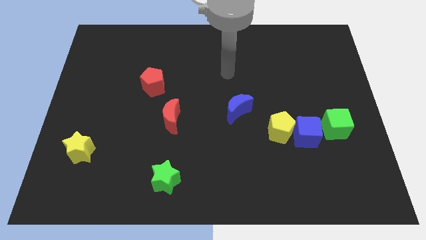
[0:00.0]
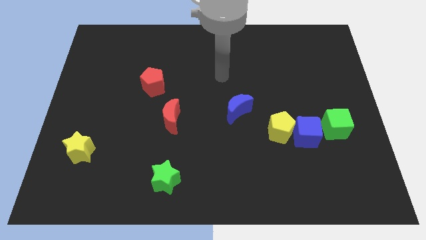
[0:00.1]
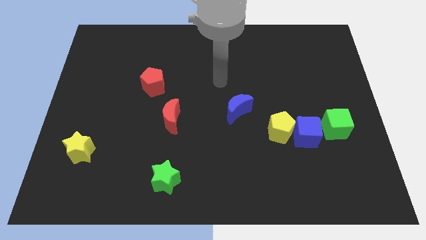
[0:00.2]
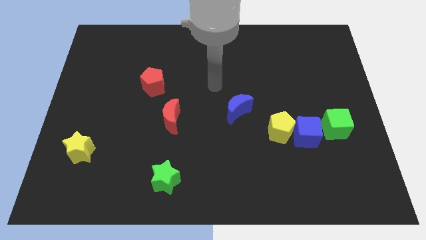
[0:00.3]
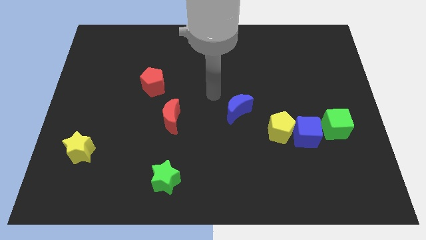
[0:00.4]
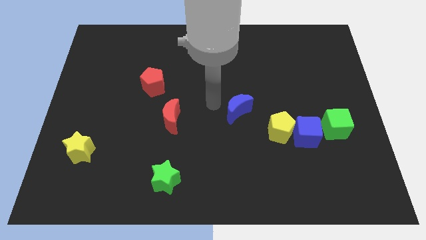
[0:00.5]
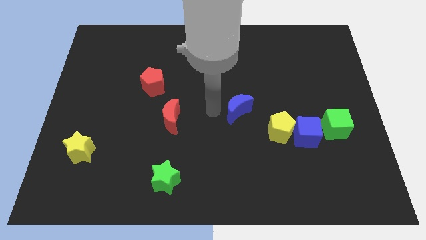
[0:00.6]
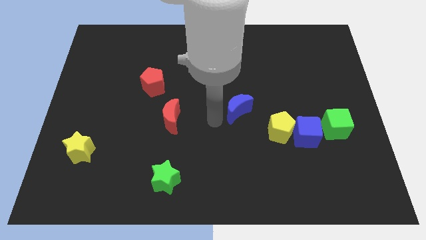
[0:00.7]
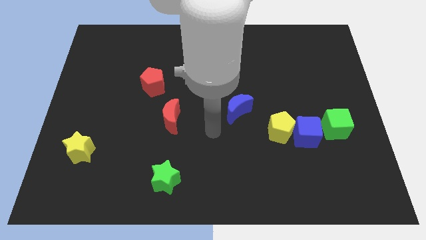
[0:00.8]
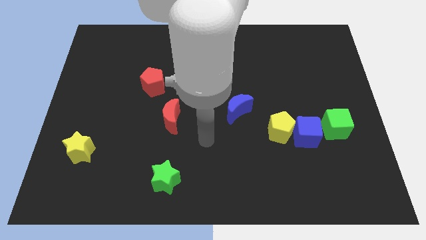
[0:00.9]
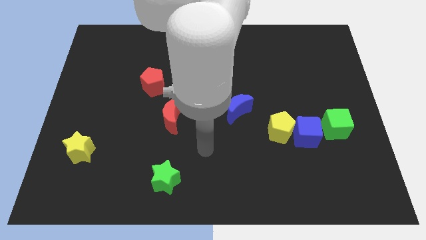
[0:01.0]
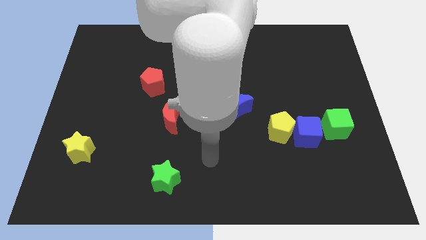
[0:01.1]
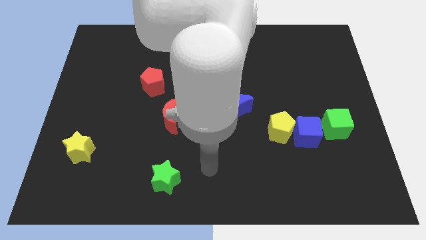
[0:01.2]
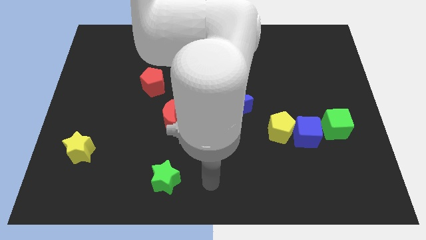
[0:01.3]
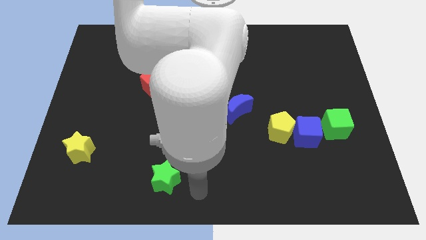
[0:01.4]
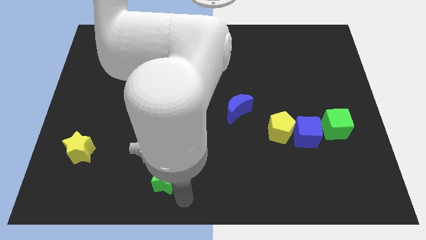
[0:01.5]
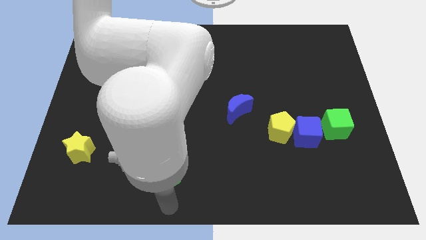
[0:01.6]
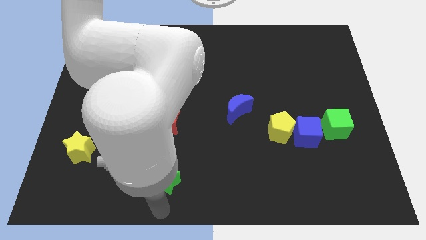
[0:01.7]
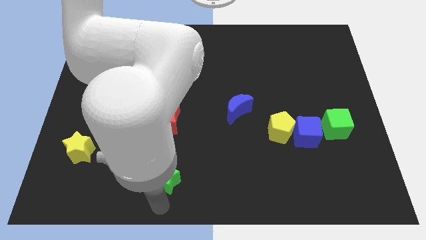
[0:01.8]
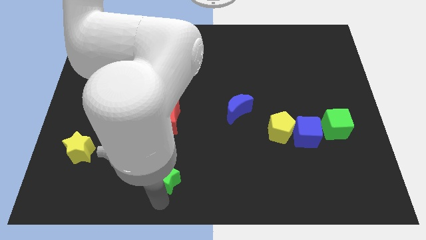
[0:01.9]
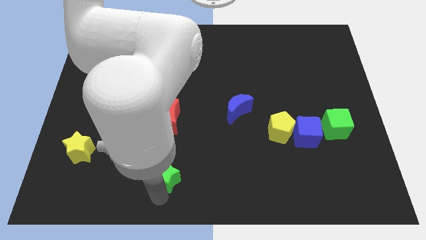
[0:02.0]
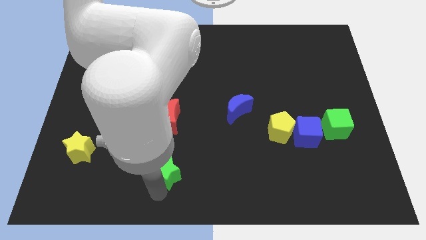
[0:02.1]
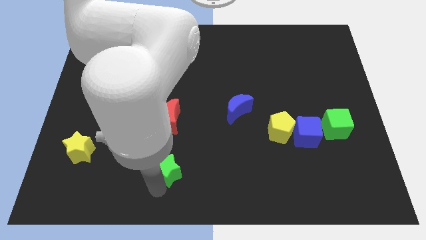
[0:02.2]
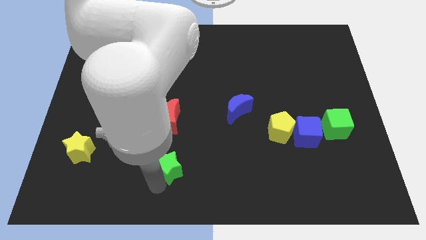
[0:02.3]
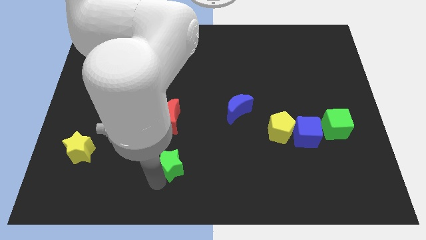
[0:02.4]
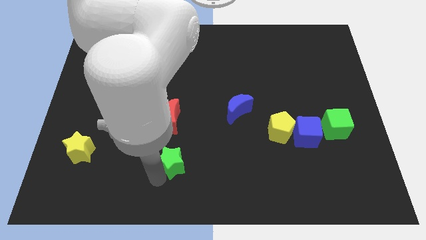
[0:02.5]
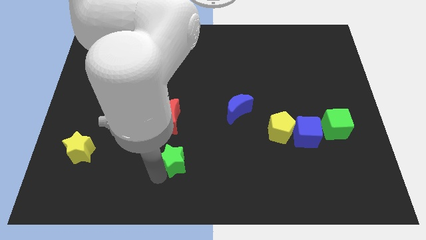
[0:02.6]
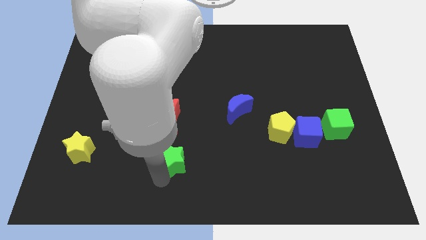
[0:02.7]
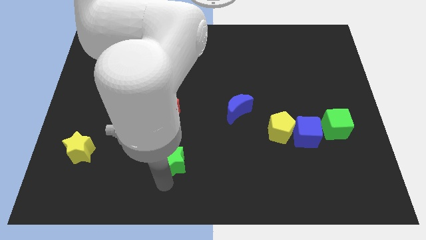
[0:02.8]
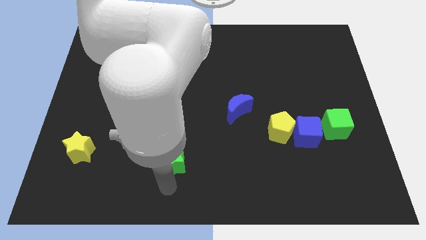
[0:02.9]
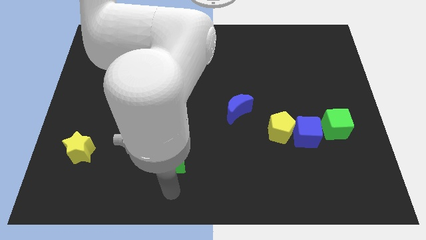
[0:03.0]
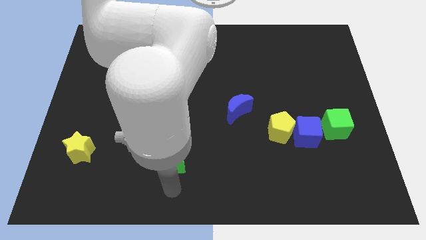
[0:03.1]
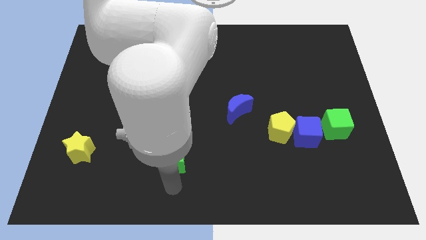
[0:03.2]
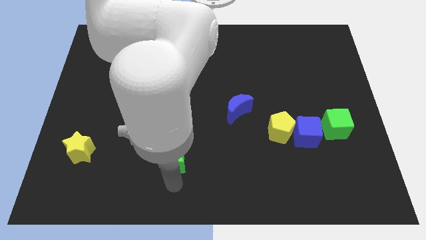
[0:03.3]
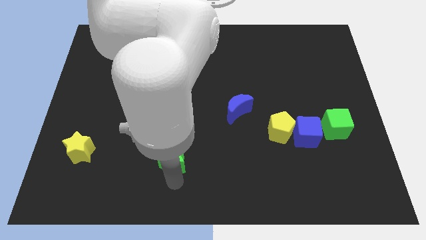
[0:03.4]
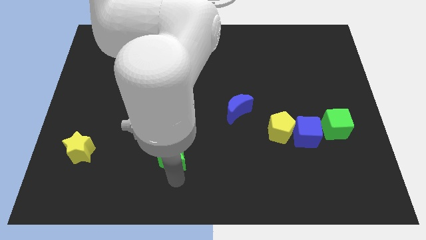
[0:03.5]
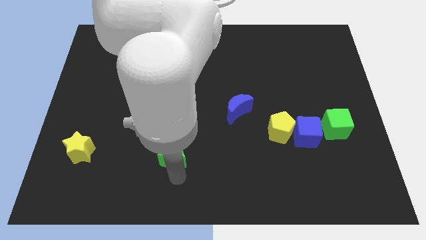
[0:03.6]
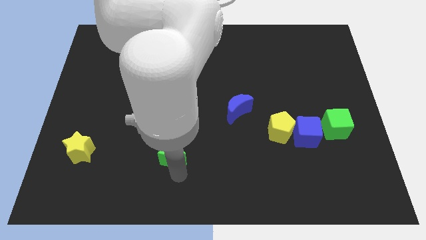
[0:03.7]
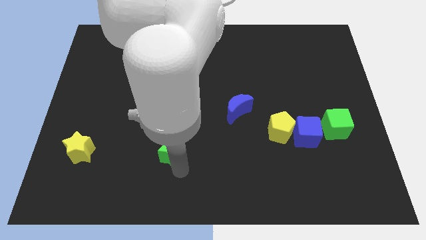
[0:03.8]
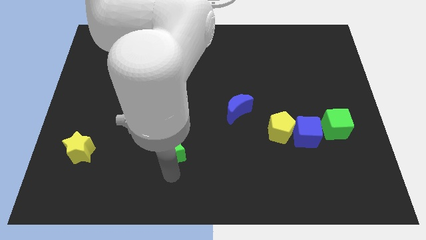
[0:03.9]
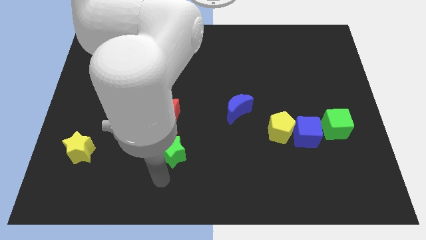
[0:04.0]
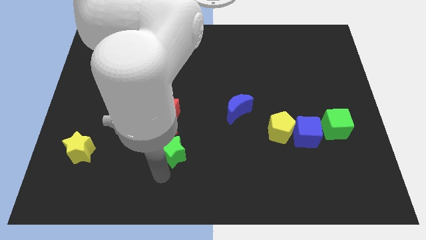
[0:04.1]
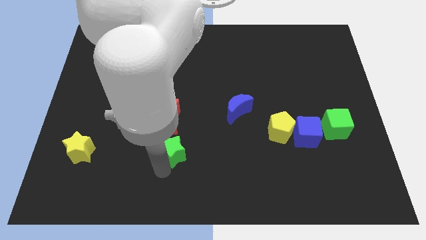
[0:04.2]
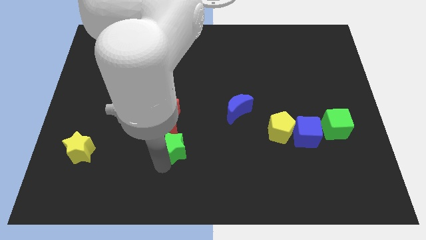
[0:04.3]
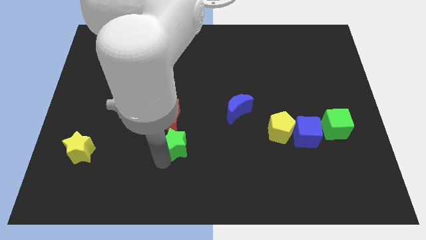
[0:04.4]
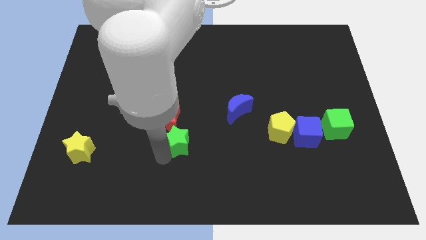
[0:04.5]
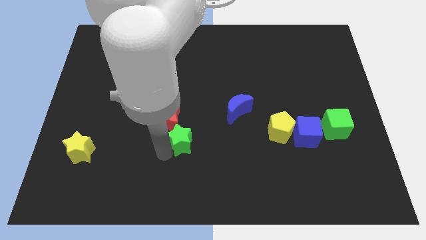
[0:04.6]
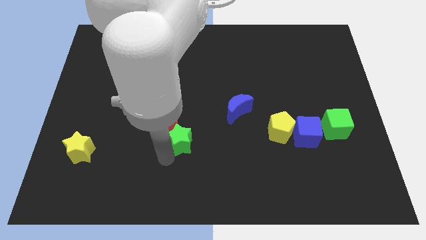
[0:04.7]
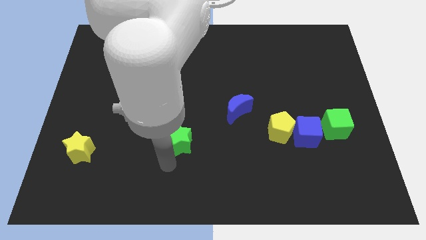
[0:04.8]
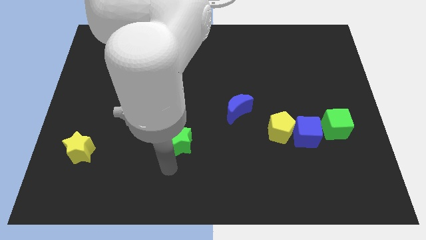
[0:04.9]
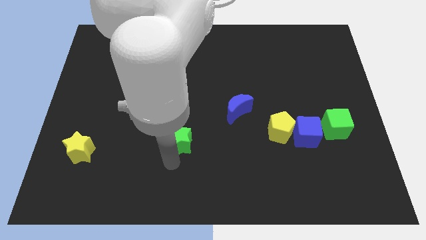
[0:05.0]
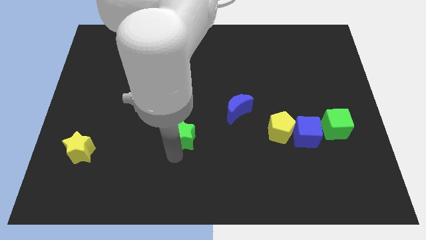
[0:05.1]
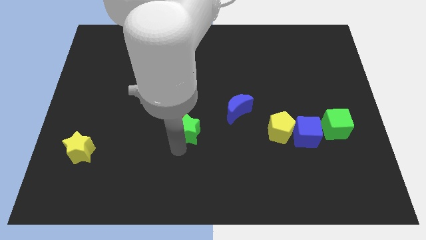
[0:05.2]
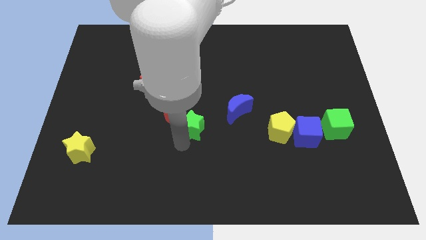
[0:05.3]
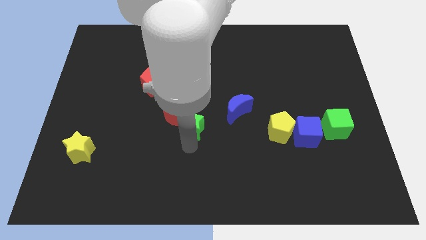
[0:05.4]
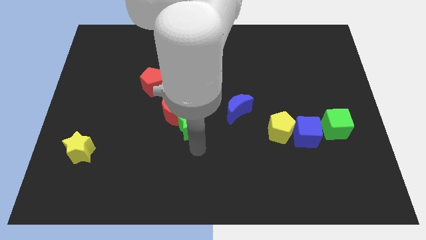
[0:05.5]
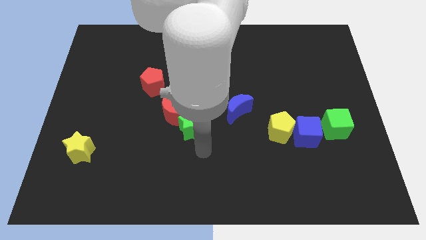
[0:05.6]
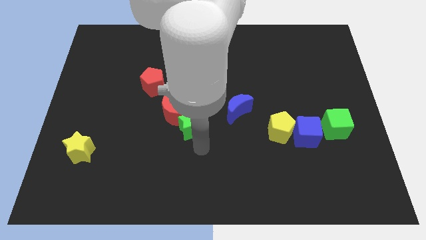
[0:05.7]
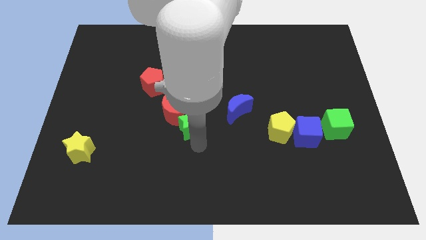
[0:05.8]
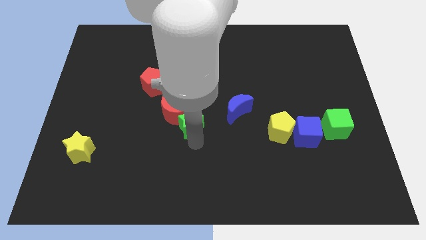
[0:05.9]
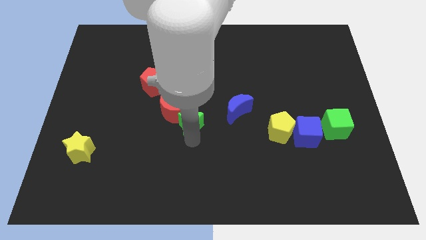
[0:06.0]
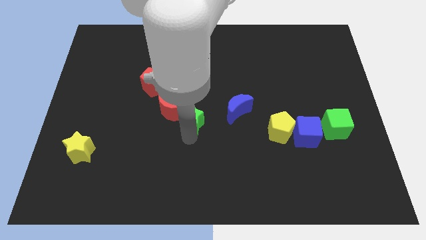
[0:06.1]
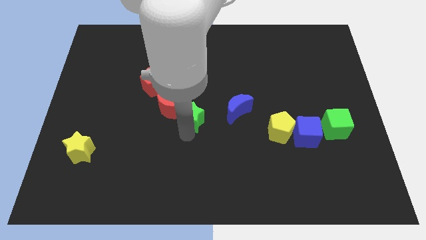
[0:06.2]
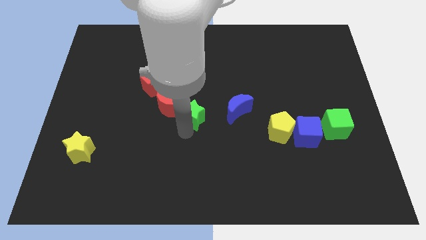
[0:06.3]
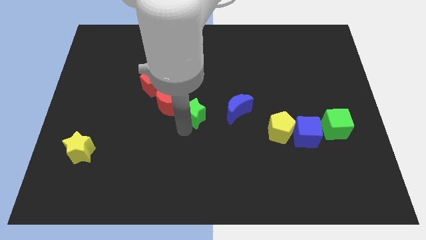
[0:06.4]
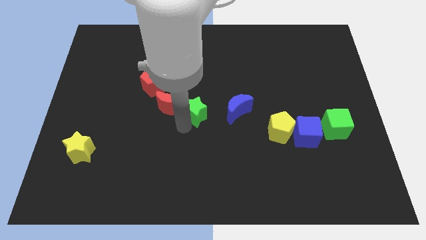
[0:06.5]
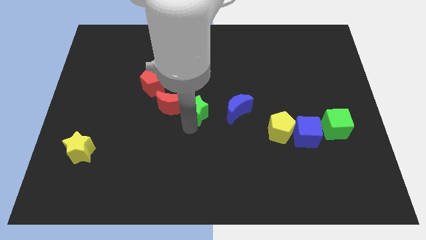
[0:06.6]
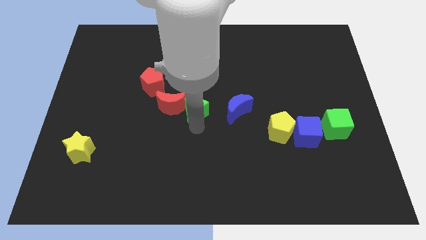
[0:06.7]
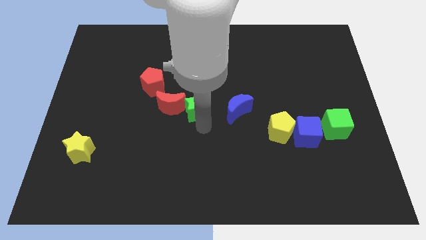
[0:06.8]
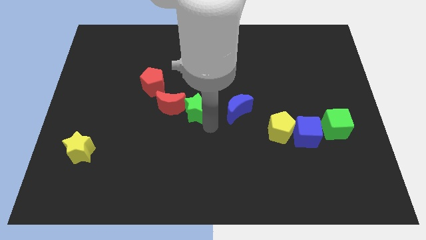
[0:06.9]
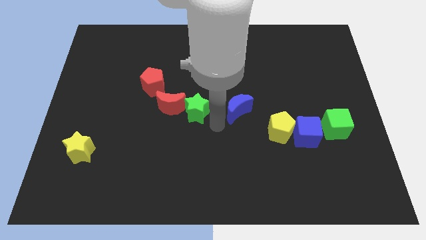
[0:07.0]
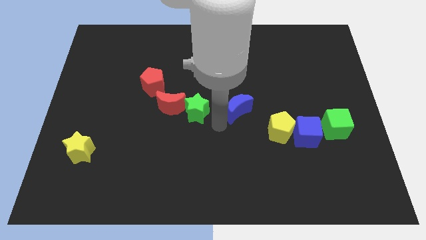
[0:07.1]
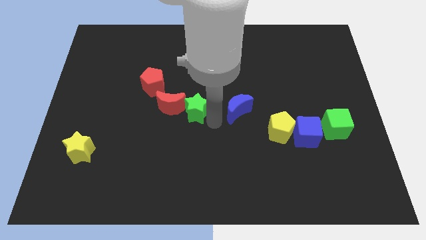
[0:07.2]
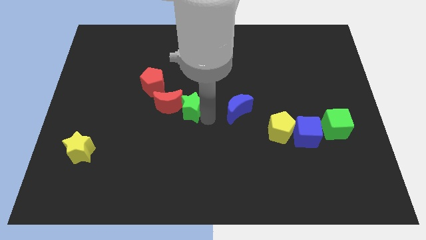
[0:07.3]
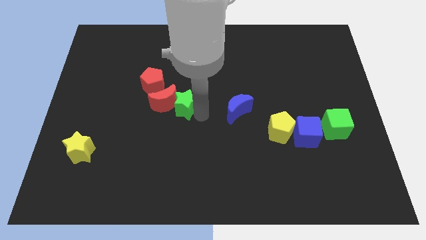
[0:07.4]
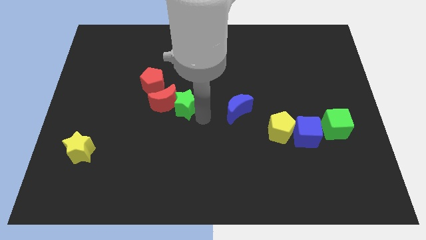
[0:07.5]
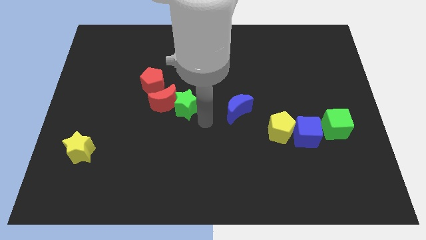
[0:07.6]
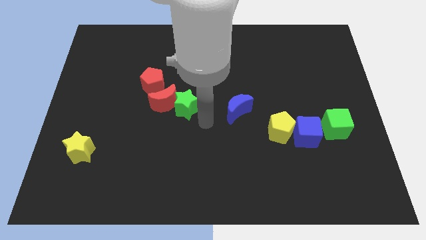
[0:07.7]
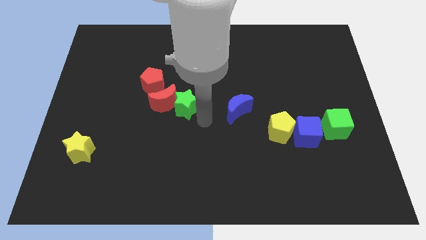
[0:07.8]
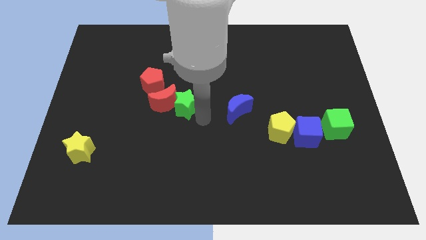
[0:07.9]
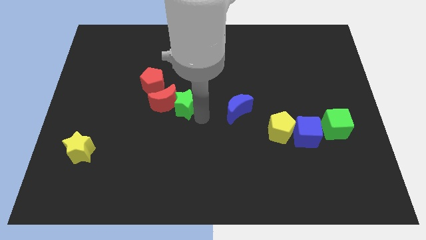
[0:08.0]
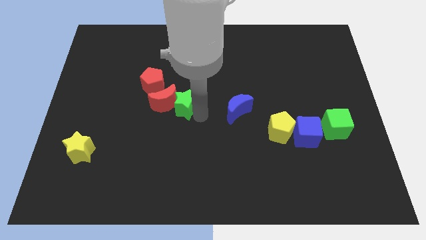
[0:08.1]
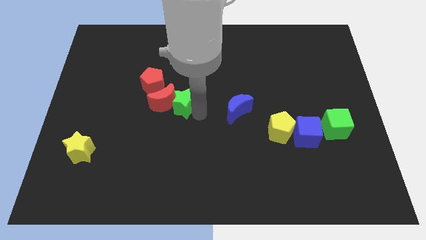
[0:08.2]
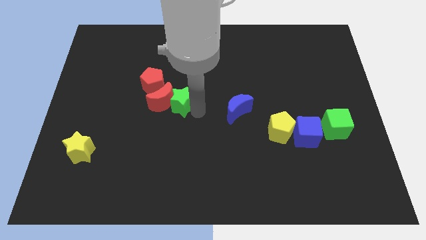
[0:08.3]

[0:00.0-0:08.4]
move the green star up
